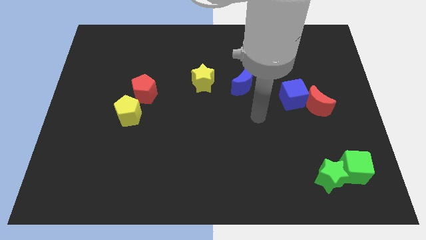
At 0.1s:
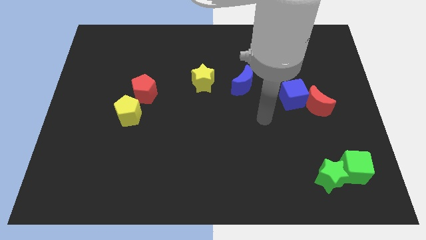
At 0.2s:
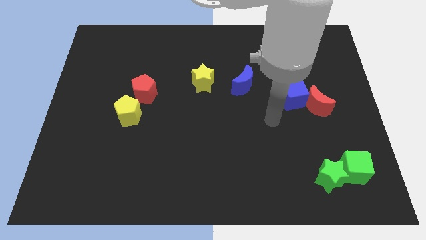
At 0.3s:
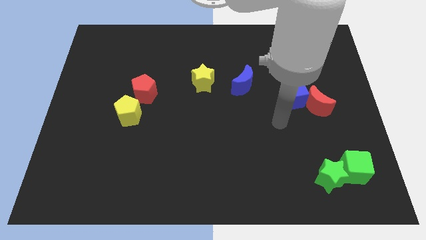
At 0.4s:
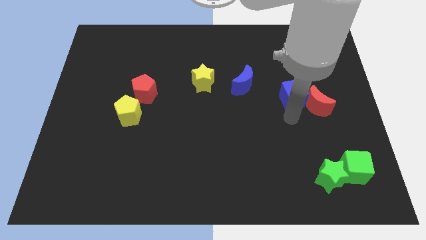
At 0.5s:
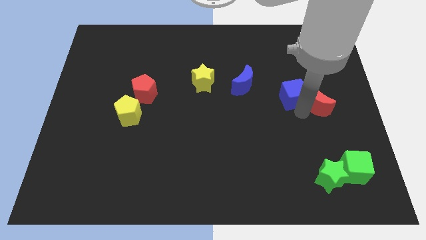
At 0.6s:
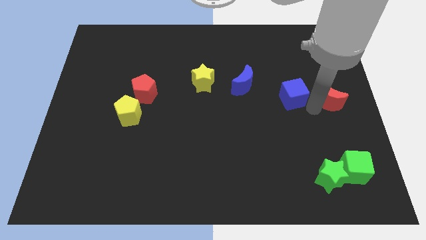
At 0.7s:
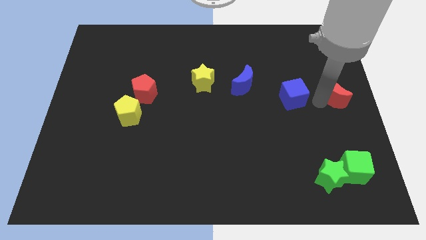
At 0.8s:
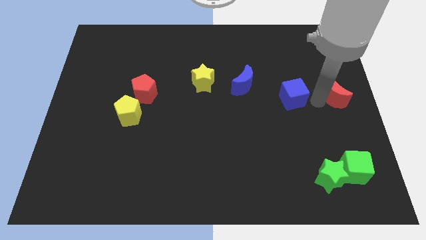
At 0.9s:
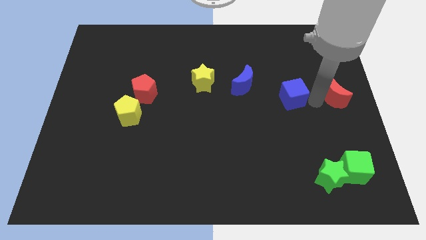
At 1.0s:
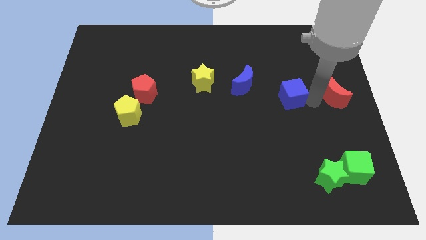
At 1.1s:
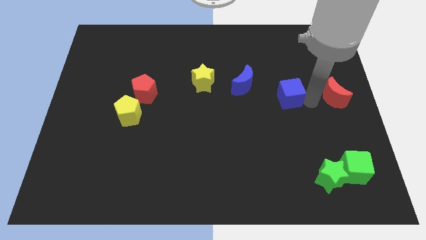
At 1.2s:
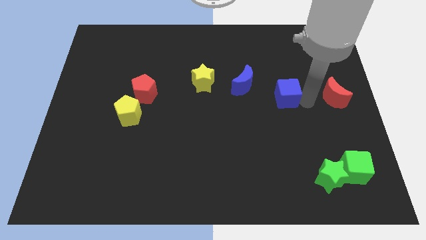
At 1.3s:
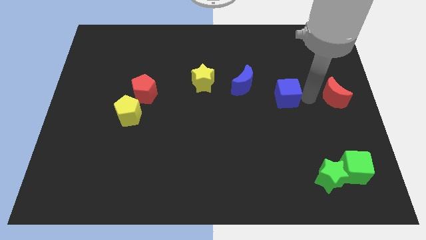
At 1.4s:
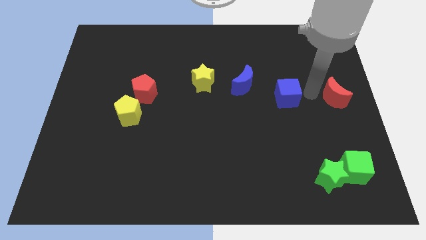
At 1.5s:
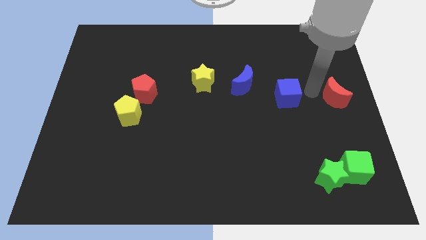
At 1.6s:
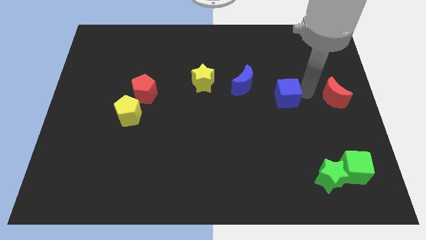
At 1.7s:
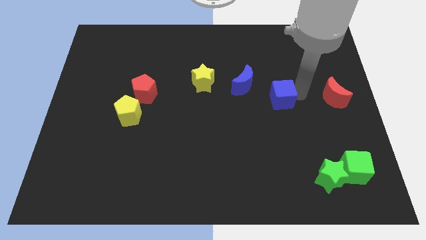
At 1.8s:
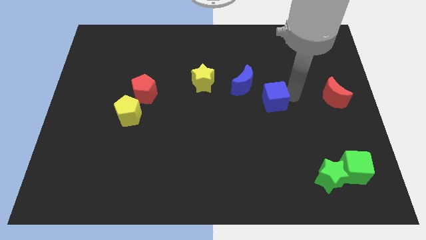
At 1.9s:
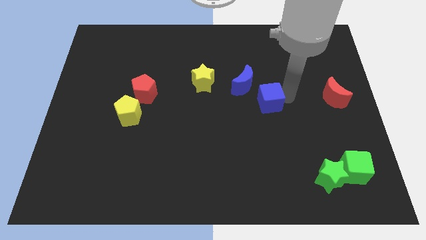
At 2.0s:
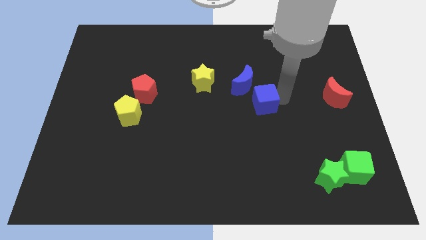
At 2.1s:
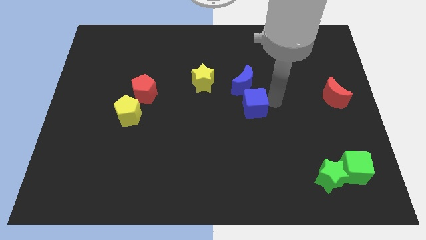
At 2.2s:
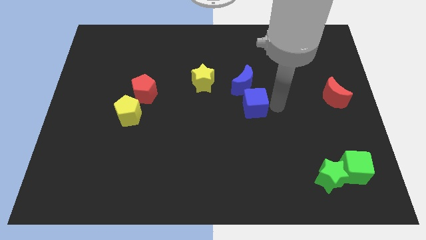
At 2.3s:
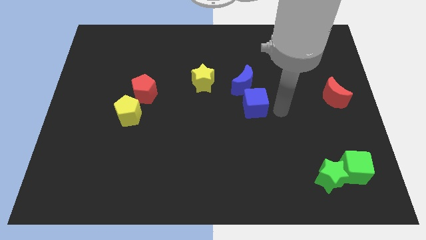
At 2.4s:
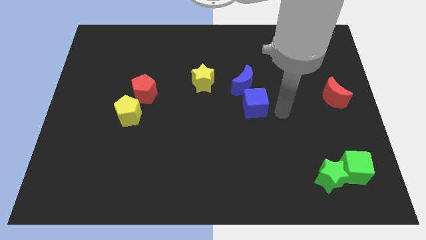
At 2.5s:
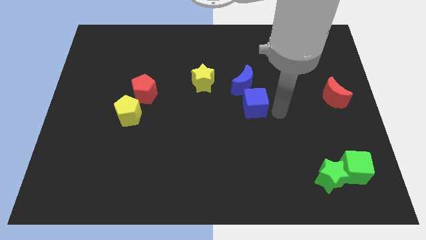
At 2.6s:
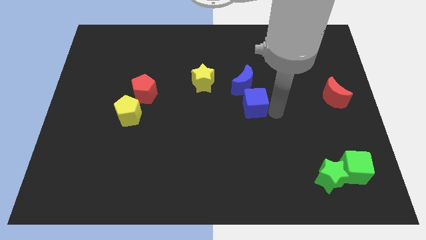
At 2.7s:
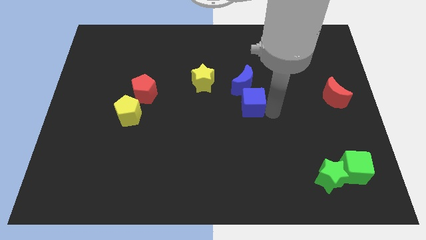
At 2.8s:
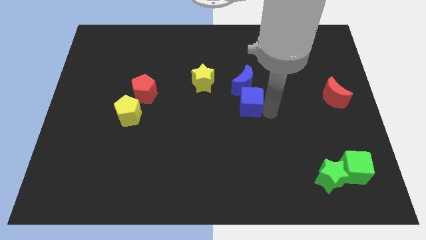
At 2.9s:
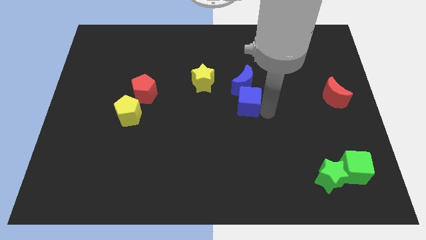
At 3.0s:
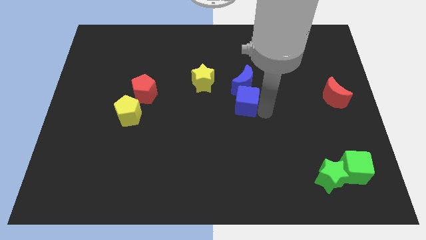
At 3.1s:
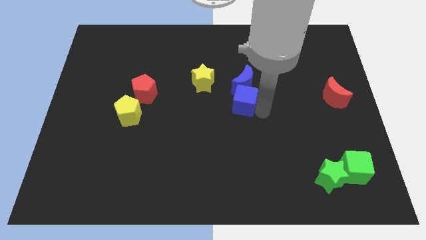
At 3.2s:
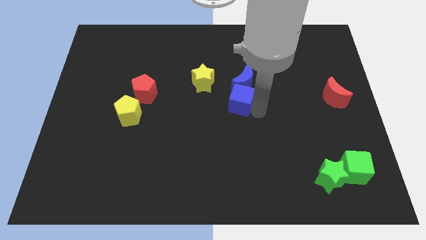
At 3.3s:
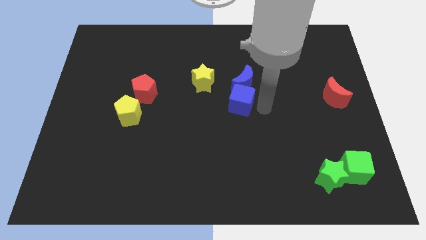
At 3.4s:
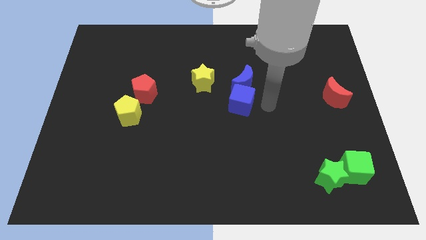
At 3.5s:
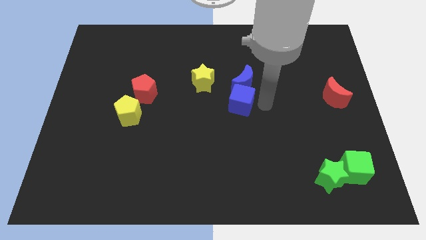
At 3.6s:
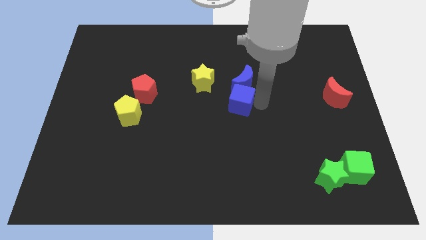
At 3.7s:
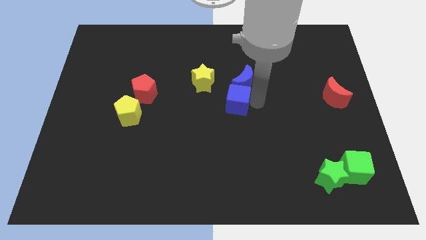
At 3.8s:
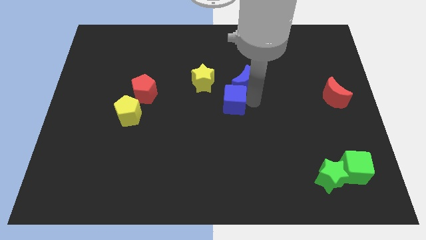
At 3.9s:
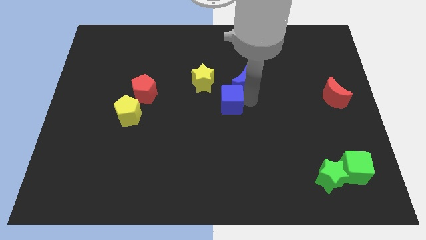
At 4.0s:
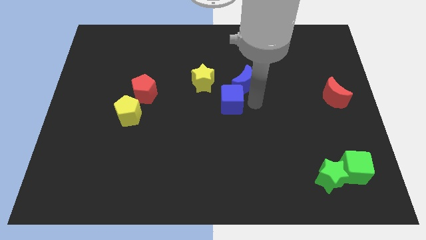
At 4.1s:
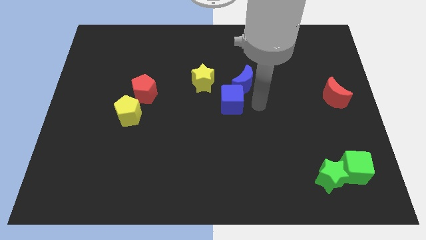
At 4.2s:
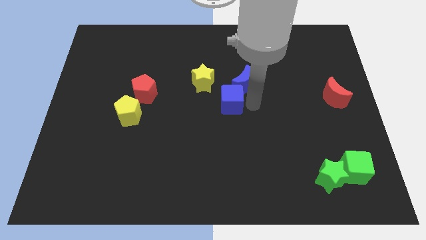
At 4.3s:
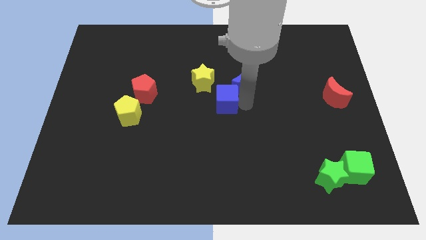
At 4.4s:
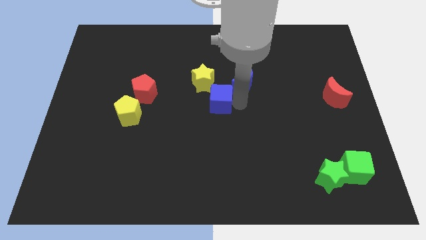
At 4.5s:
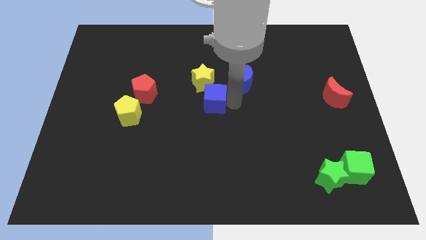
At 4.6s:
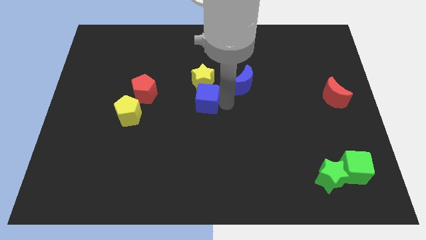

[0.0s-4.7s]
move the blue cube right of the red pentagon

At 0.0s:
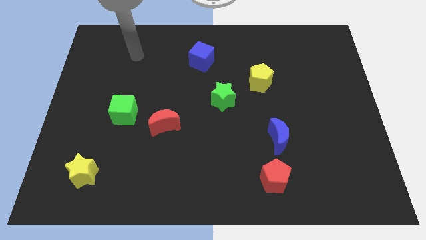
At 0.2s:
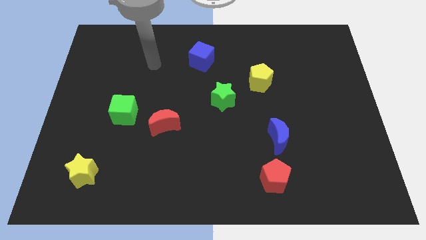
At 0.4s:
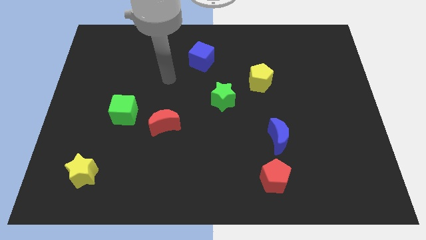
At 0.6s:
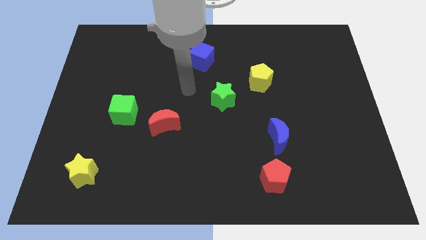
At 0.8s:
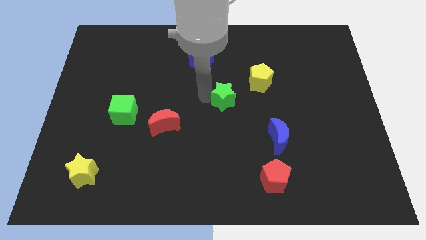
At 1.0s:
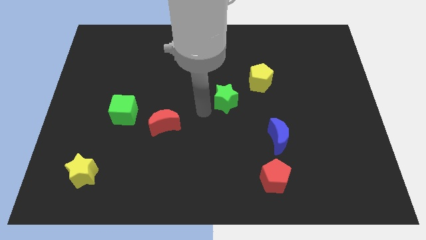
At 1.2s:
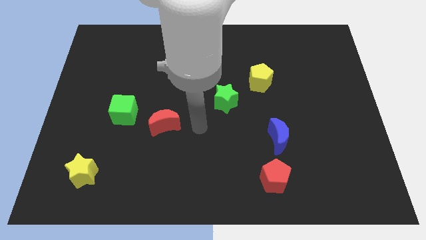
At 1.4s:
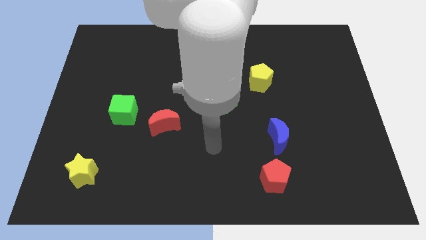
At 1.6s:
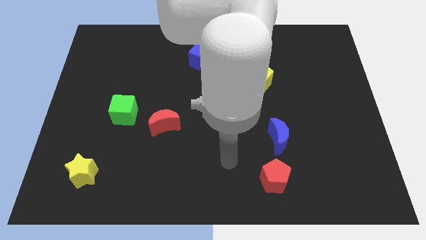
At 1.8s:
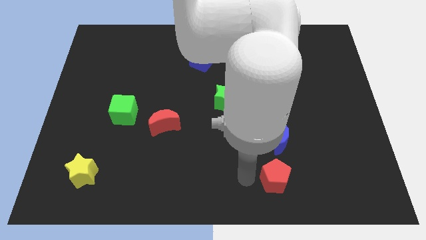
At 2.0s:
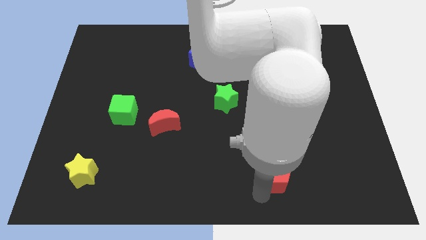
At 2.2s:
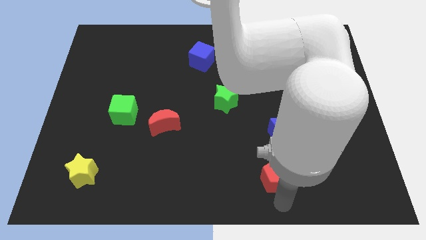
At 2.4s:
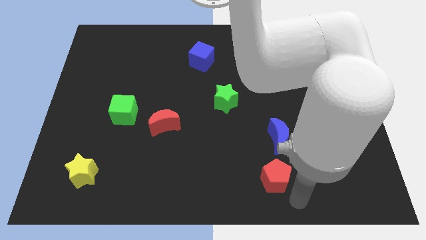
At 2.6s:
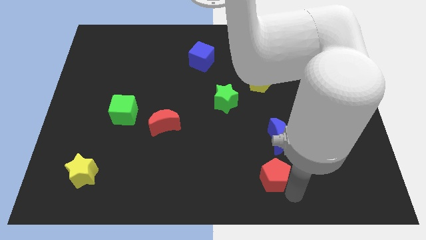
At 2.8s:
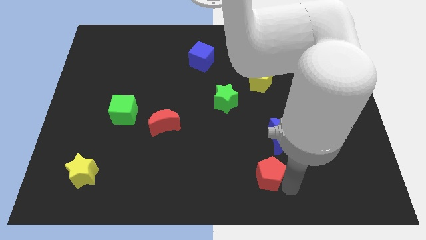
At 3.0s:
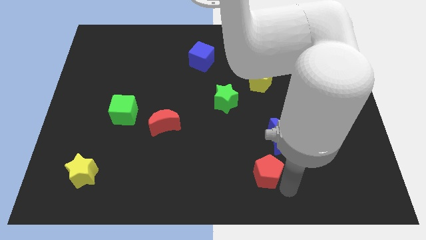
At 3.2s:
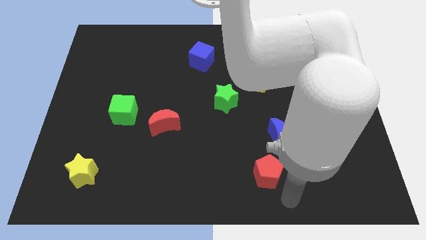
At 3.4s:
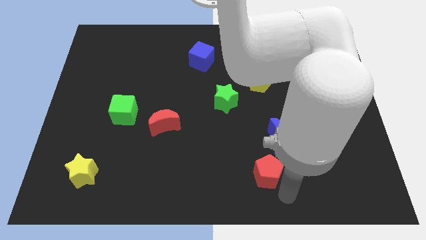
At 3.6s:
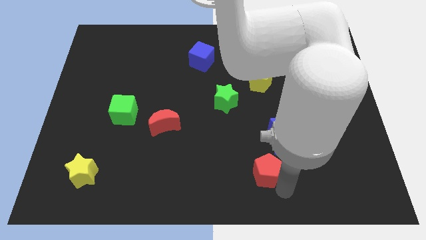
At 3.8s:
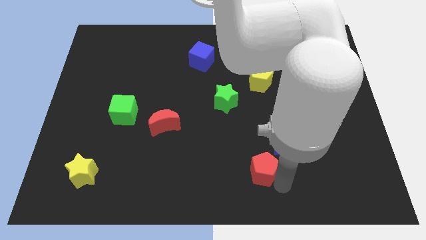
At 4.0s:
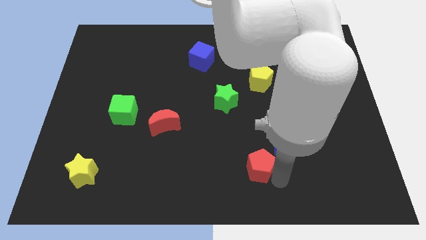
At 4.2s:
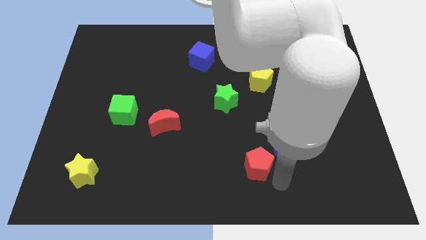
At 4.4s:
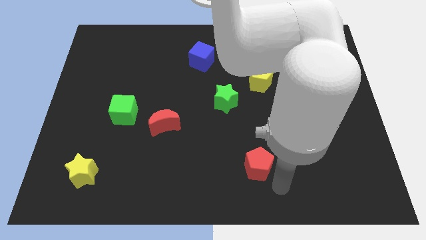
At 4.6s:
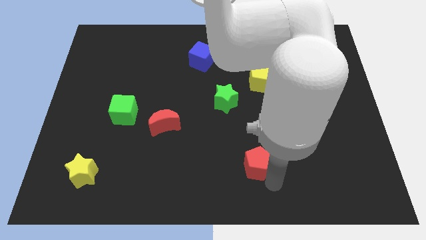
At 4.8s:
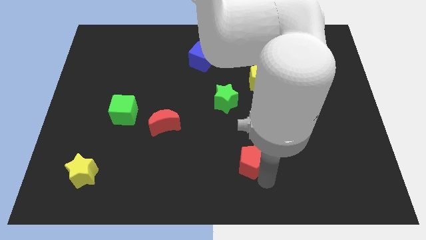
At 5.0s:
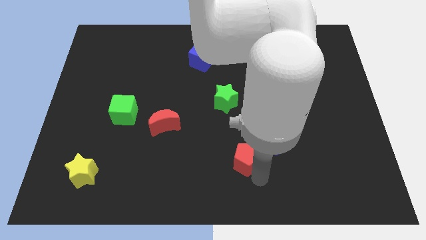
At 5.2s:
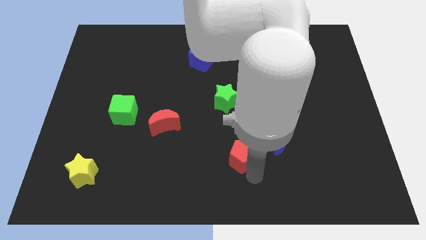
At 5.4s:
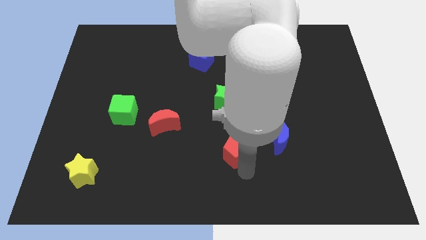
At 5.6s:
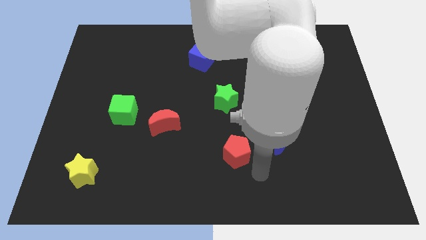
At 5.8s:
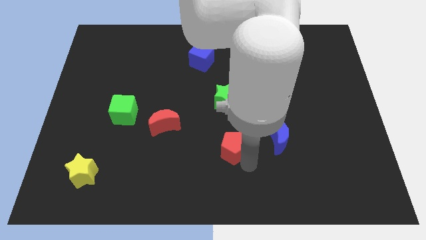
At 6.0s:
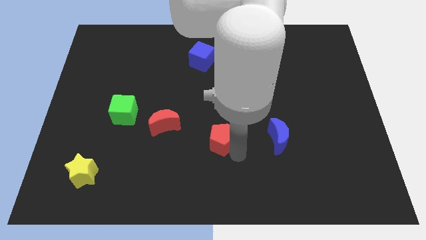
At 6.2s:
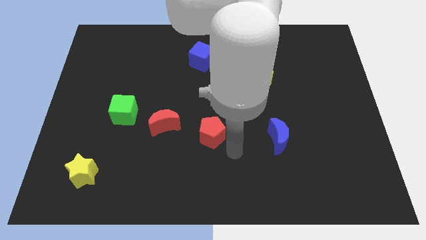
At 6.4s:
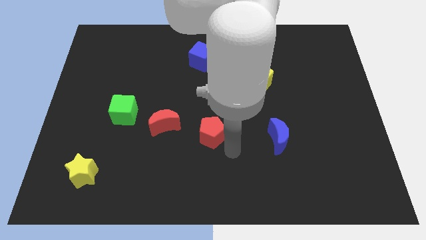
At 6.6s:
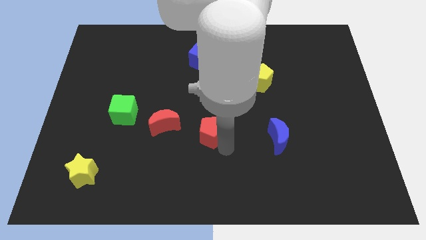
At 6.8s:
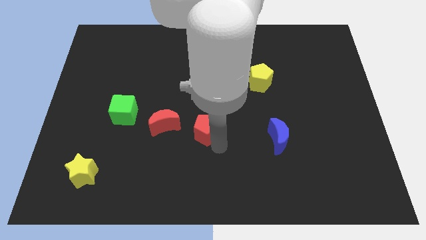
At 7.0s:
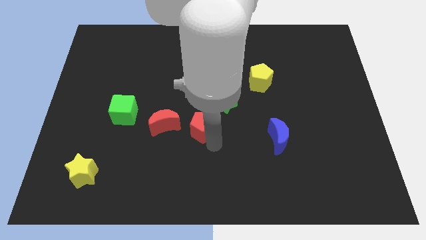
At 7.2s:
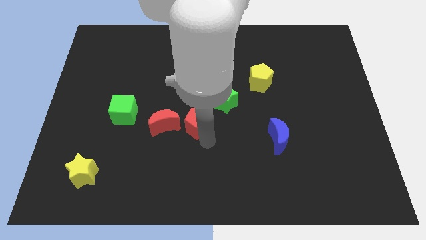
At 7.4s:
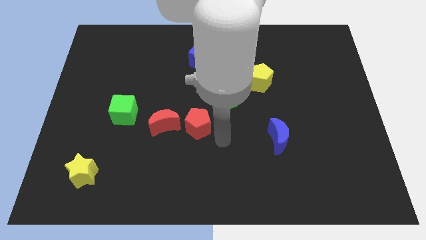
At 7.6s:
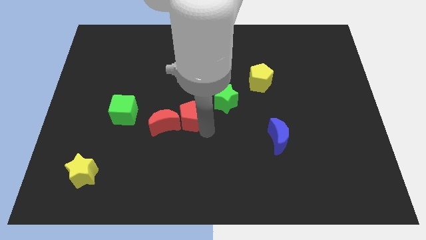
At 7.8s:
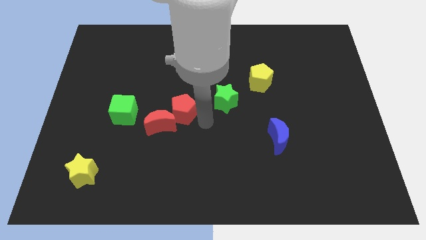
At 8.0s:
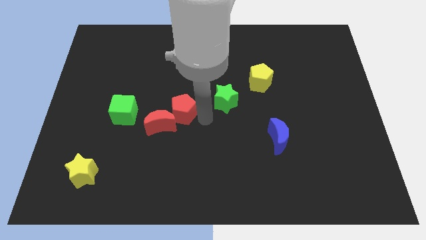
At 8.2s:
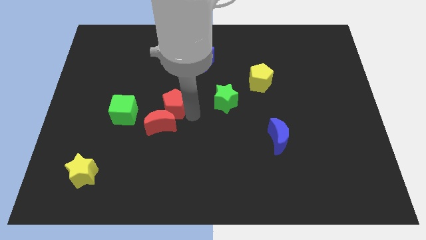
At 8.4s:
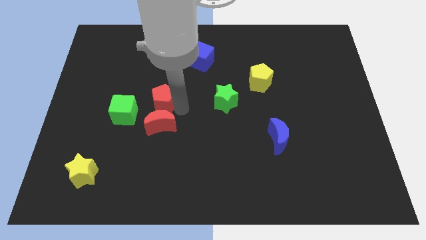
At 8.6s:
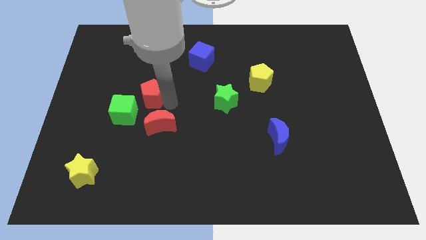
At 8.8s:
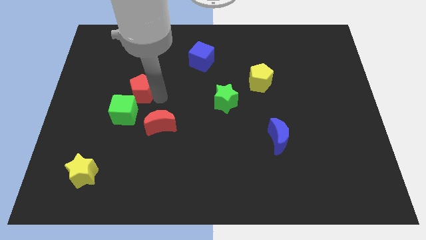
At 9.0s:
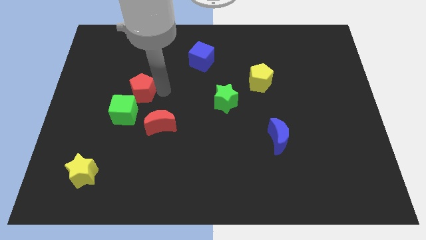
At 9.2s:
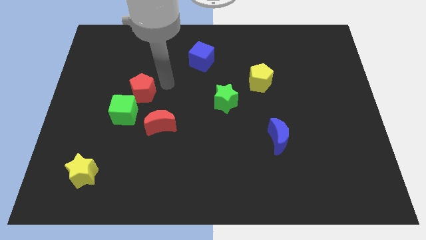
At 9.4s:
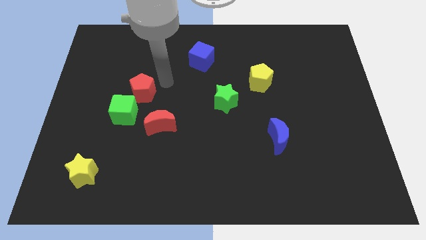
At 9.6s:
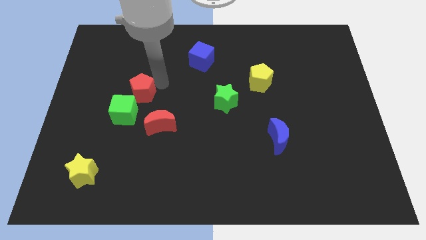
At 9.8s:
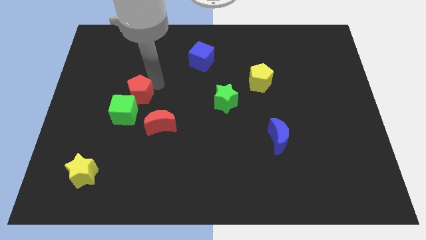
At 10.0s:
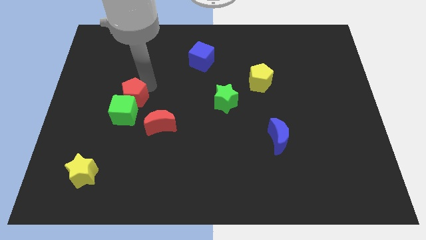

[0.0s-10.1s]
push the red pentagon diagonally up and to the left of the green cube
